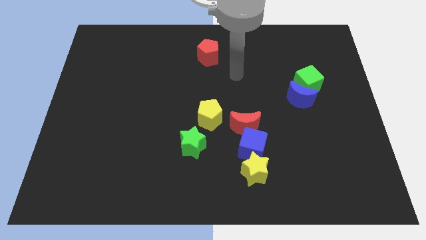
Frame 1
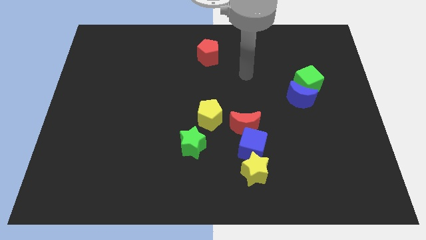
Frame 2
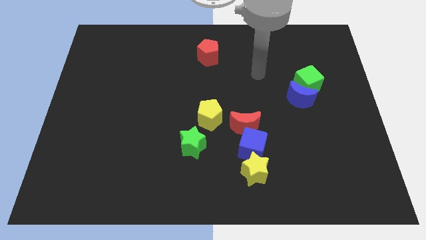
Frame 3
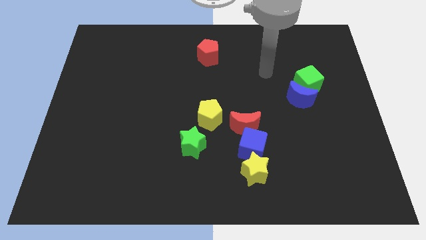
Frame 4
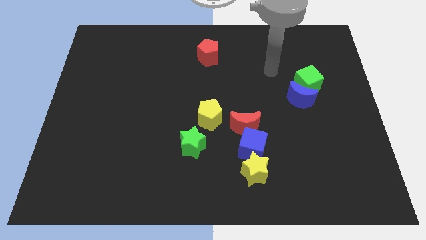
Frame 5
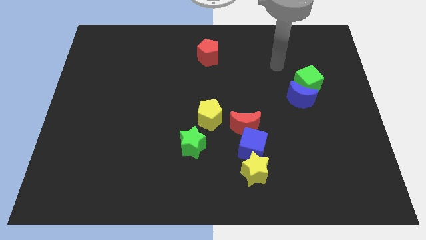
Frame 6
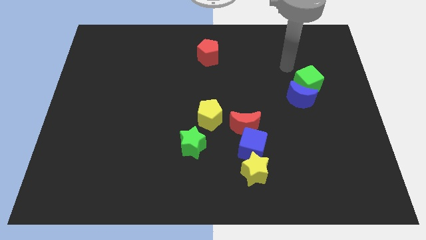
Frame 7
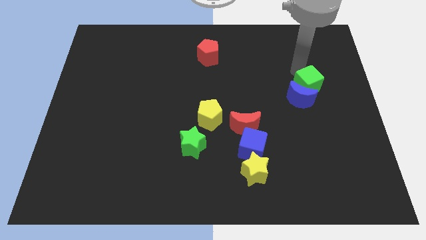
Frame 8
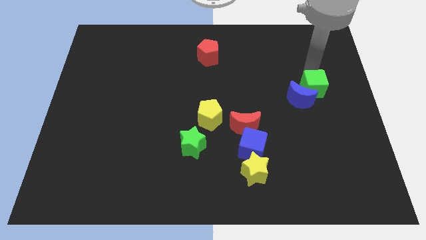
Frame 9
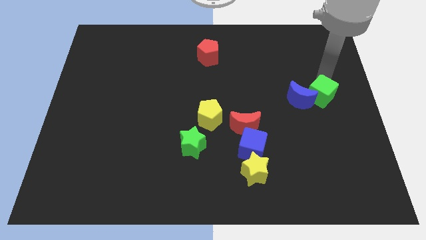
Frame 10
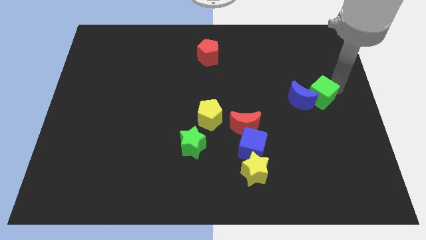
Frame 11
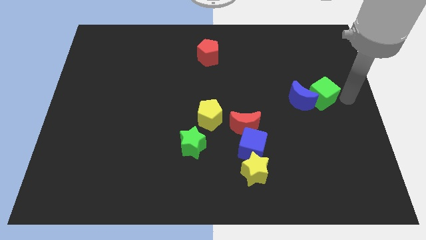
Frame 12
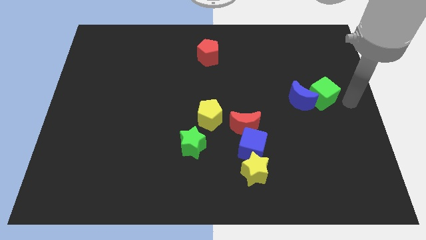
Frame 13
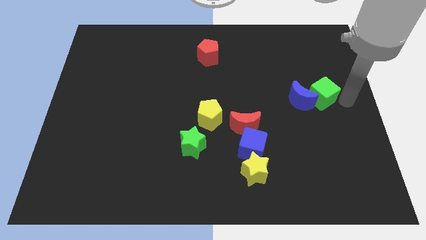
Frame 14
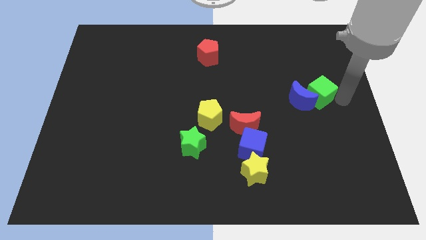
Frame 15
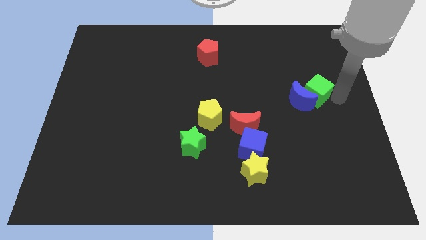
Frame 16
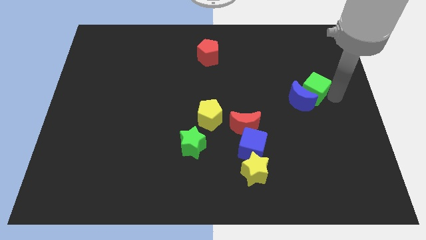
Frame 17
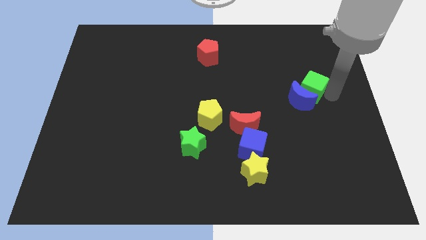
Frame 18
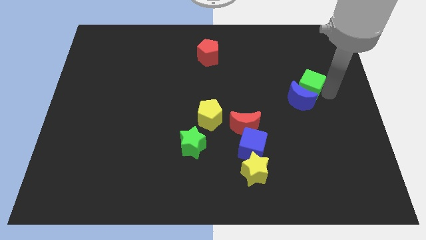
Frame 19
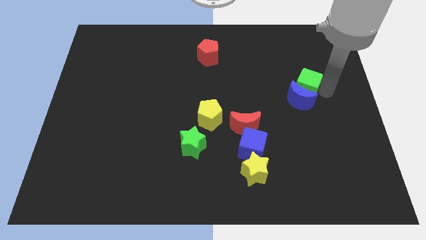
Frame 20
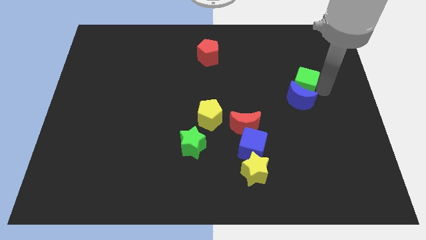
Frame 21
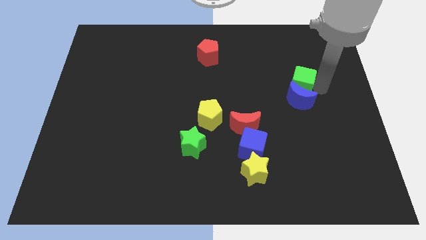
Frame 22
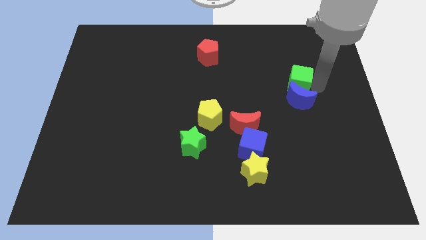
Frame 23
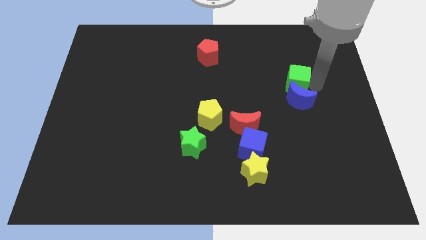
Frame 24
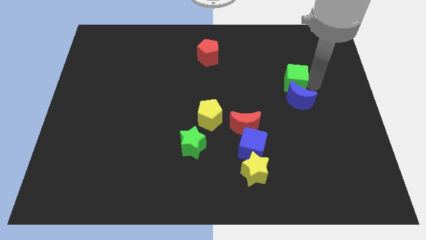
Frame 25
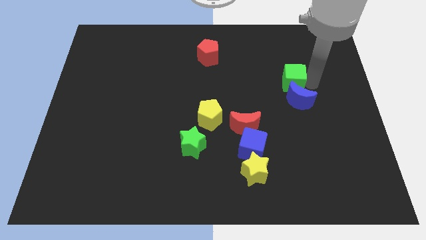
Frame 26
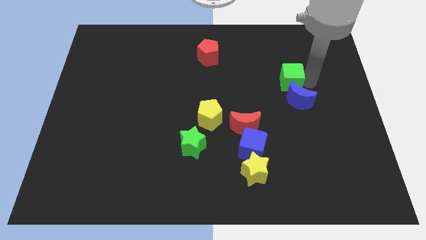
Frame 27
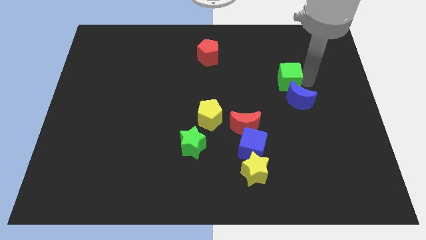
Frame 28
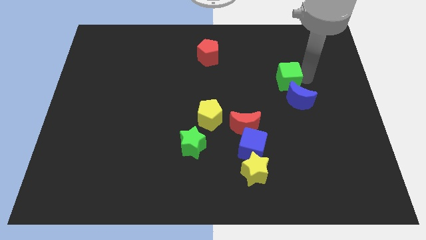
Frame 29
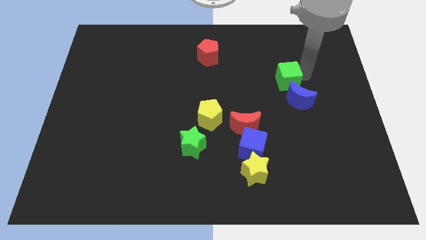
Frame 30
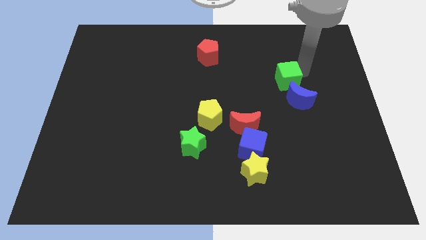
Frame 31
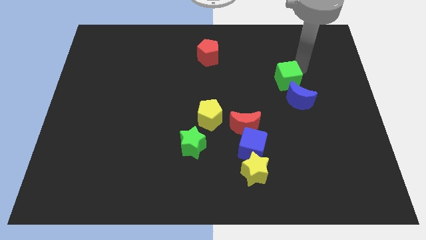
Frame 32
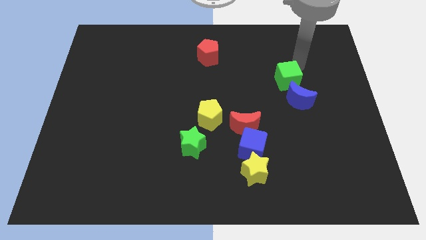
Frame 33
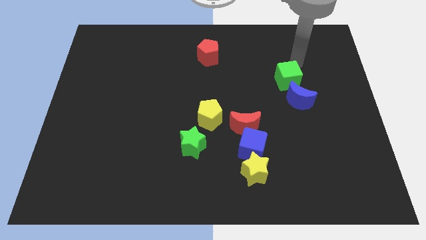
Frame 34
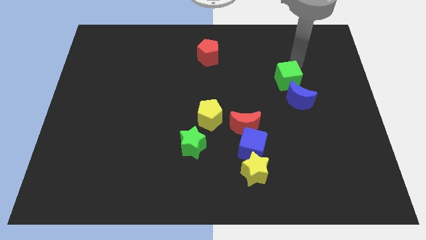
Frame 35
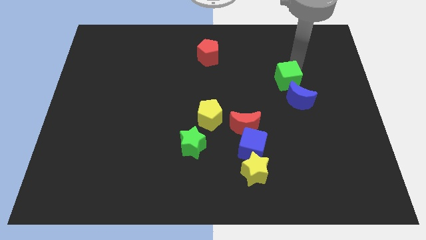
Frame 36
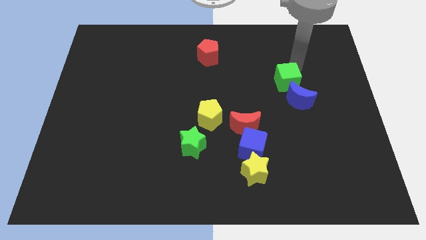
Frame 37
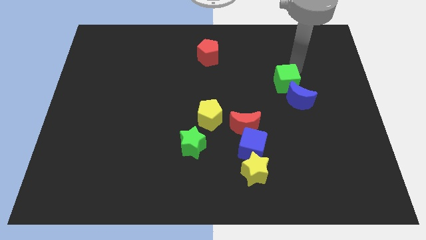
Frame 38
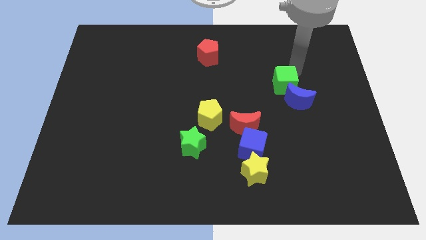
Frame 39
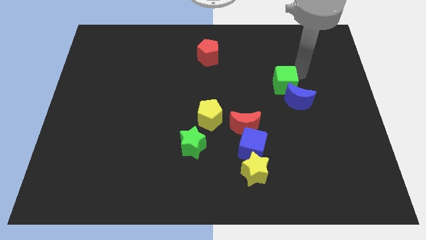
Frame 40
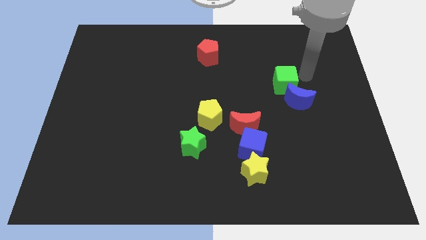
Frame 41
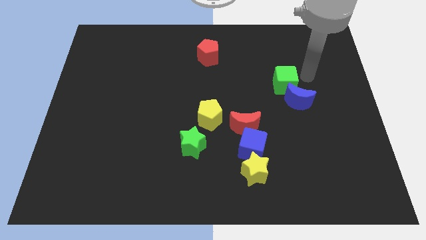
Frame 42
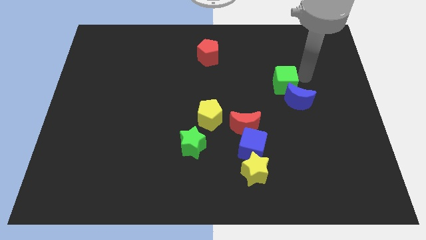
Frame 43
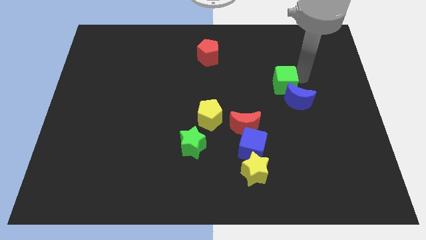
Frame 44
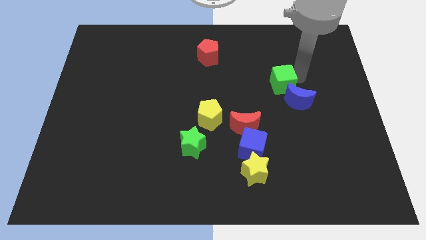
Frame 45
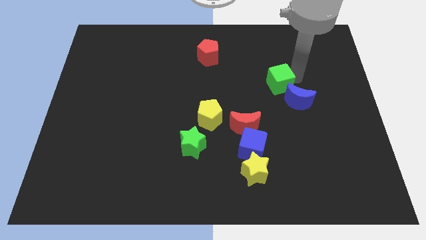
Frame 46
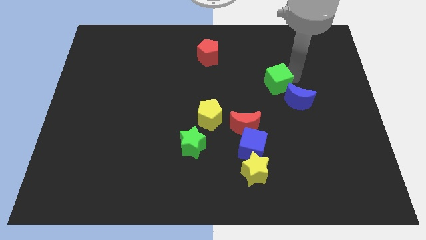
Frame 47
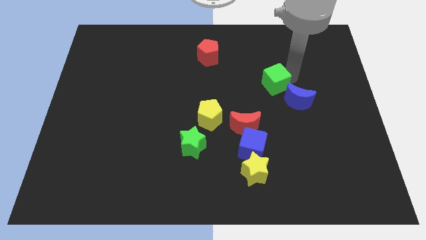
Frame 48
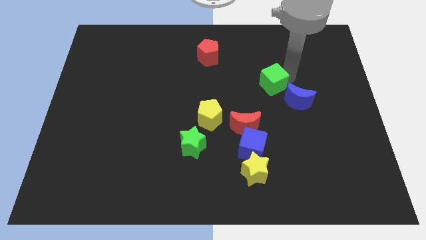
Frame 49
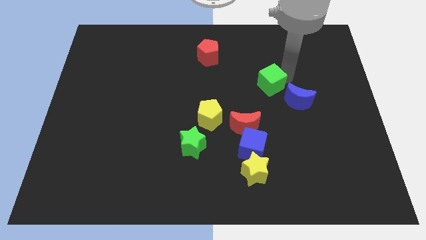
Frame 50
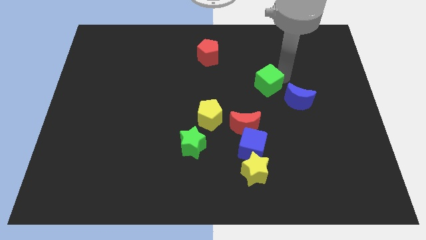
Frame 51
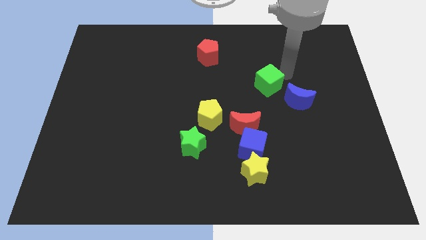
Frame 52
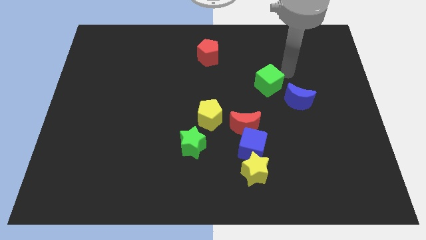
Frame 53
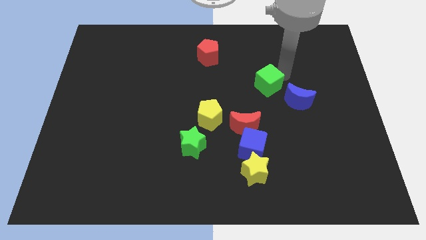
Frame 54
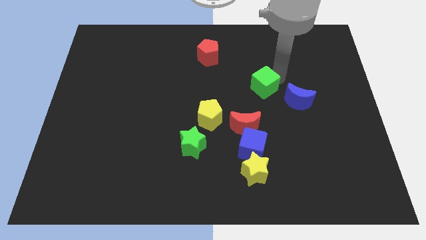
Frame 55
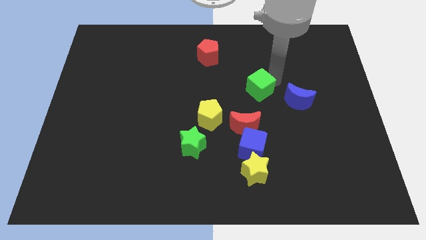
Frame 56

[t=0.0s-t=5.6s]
push the green cube to the center of the board
